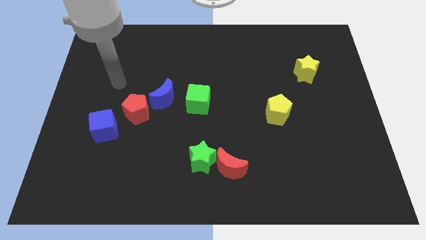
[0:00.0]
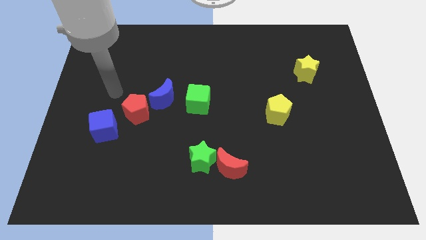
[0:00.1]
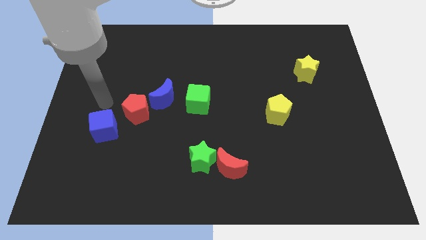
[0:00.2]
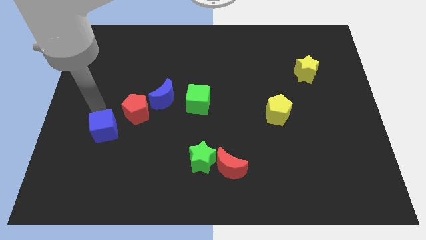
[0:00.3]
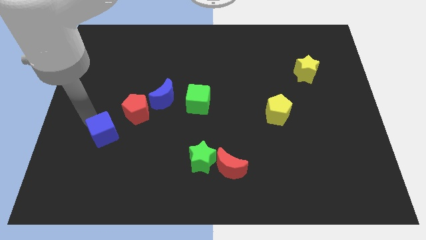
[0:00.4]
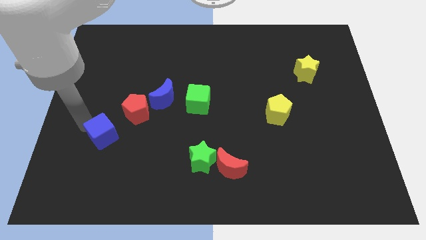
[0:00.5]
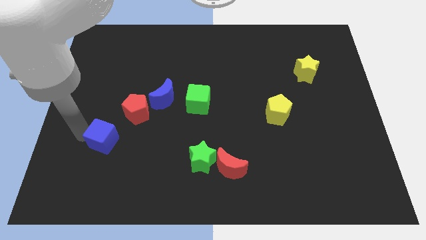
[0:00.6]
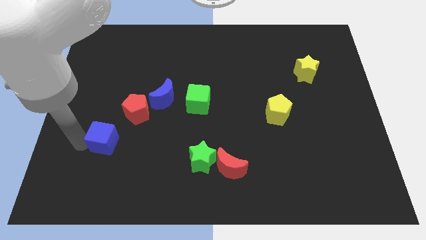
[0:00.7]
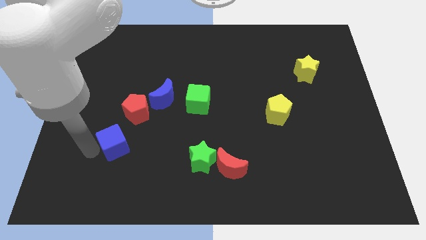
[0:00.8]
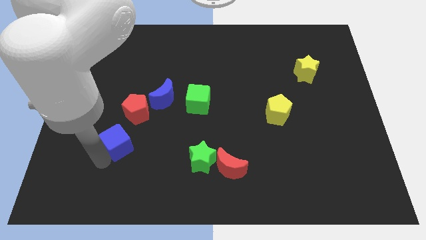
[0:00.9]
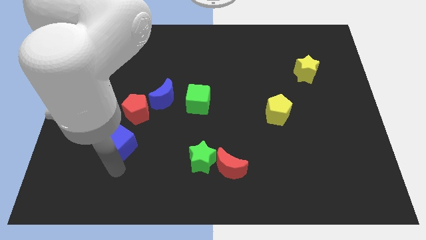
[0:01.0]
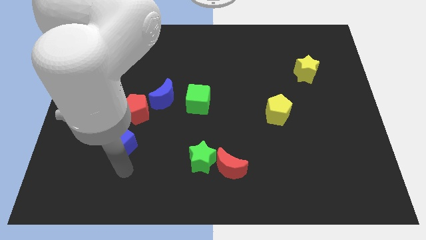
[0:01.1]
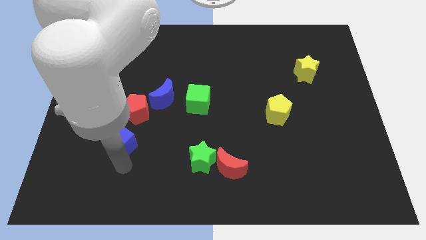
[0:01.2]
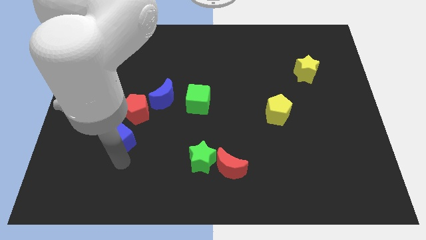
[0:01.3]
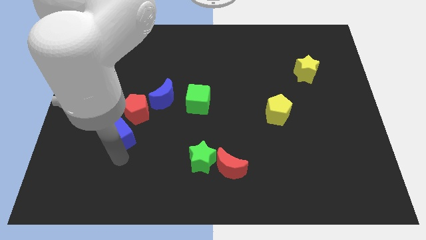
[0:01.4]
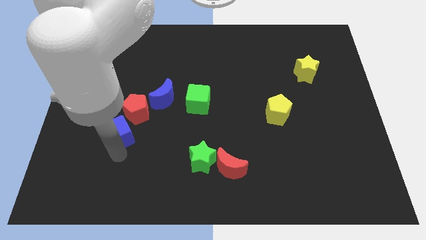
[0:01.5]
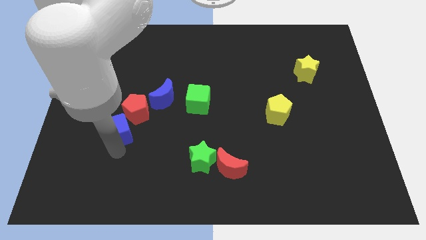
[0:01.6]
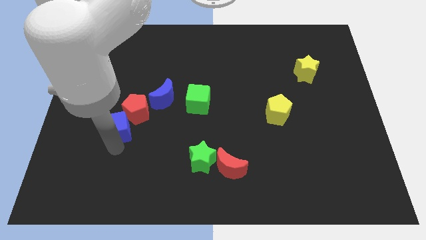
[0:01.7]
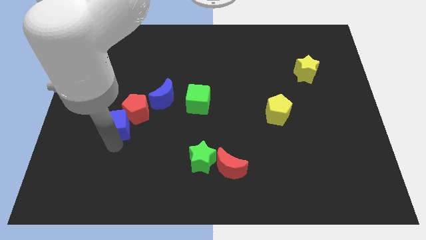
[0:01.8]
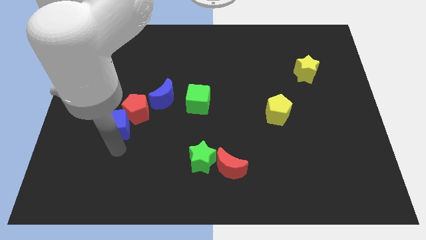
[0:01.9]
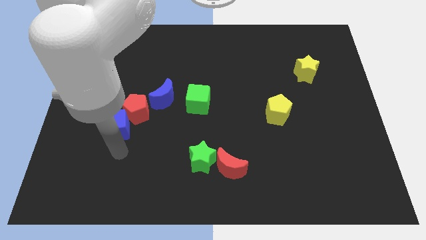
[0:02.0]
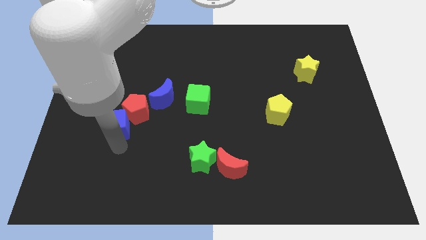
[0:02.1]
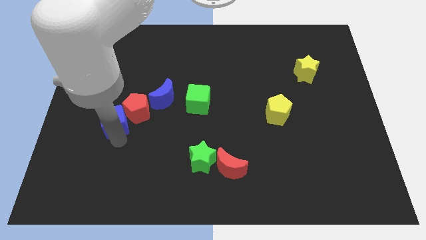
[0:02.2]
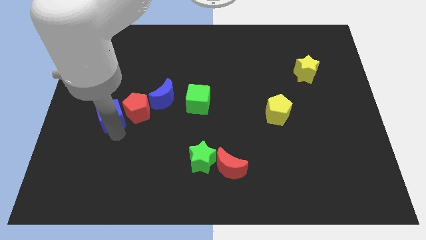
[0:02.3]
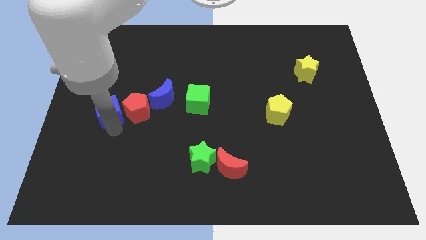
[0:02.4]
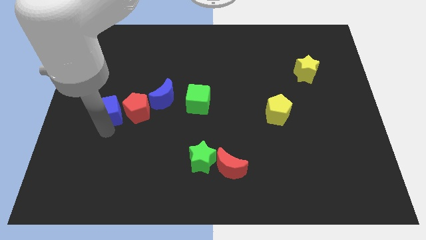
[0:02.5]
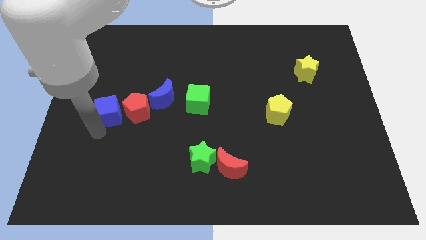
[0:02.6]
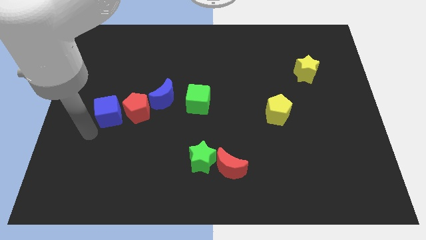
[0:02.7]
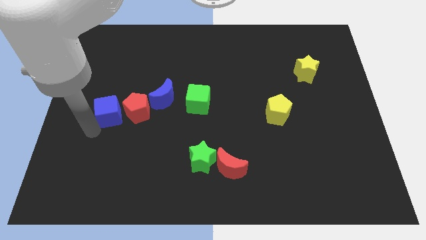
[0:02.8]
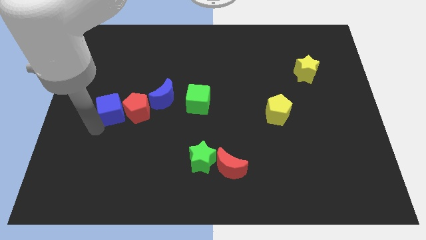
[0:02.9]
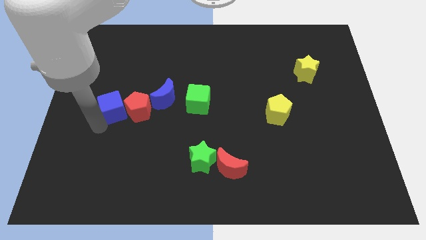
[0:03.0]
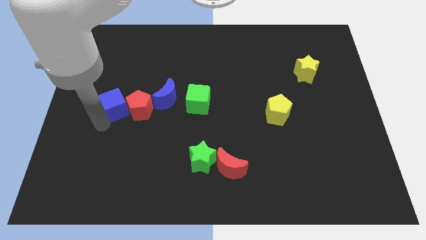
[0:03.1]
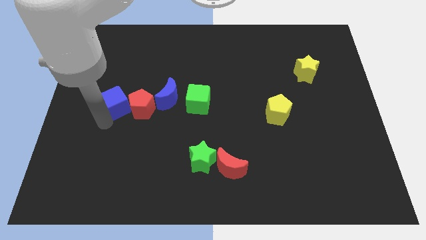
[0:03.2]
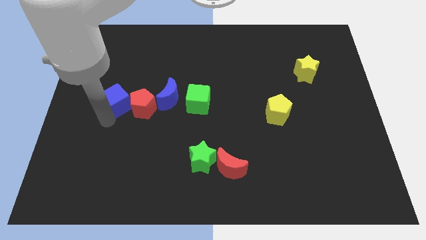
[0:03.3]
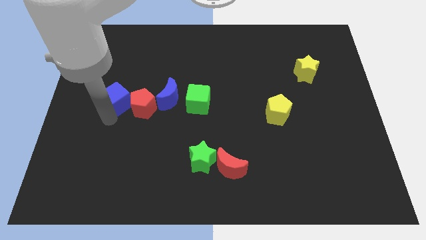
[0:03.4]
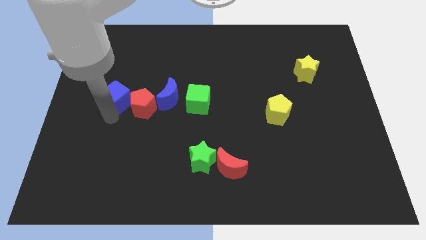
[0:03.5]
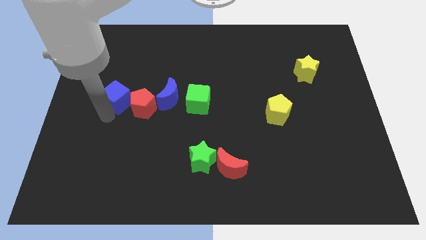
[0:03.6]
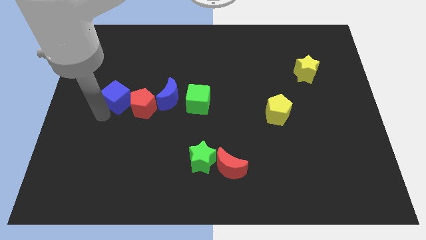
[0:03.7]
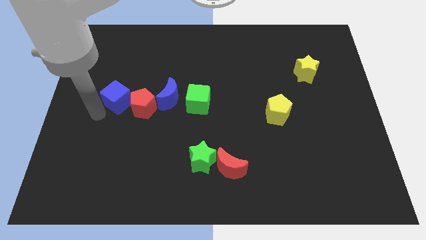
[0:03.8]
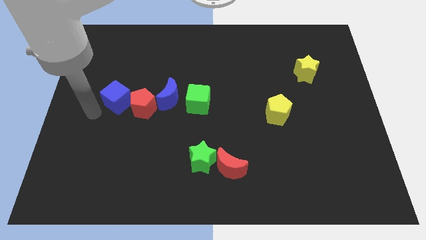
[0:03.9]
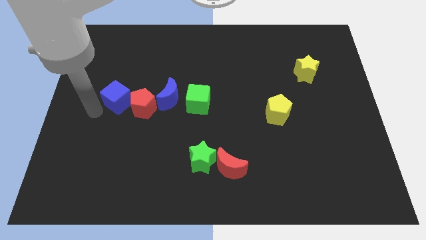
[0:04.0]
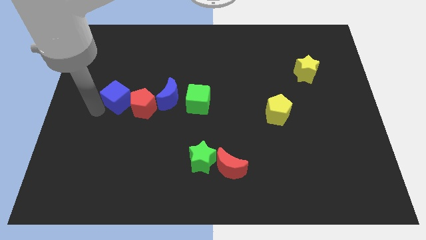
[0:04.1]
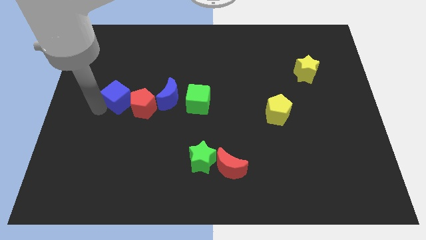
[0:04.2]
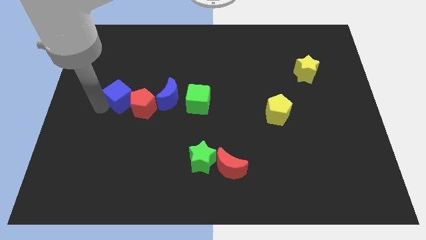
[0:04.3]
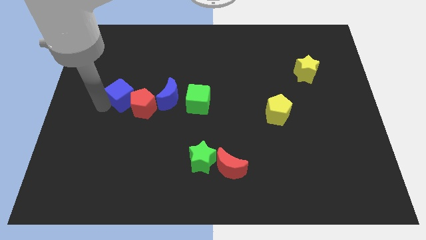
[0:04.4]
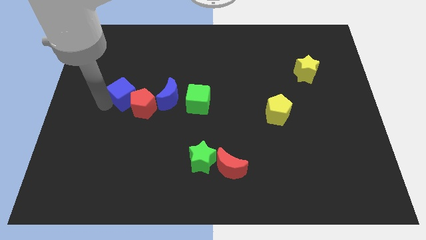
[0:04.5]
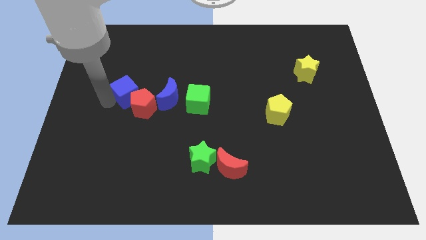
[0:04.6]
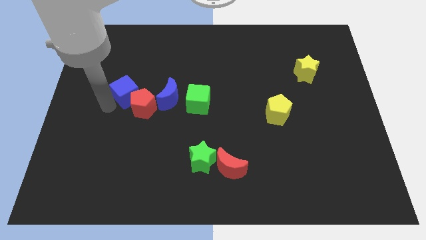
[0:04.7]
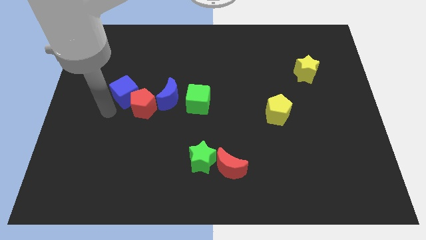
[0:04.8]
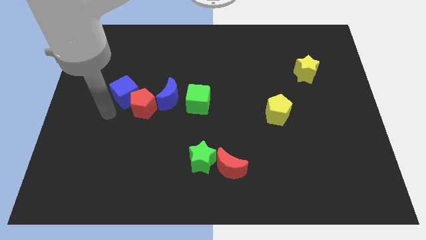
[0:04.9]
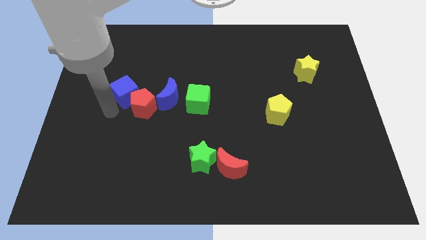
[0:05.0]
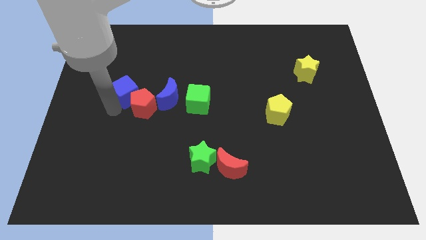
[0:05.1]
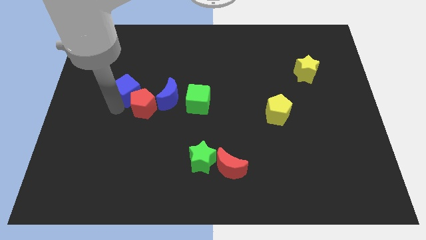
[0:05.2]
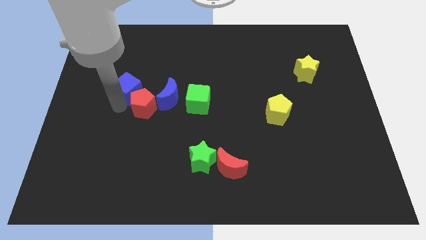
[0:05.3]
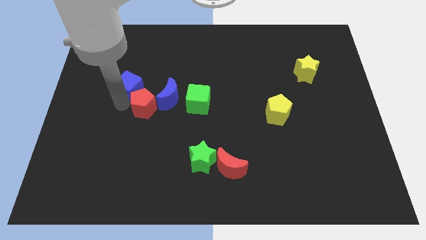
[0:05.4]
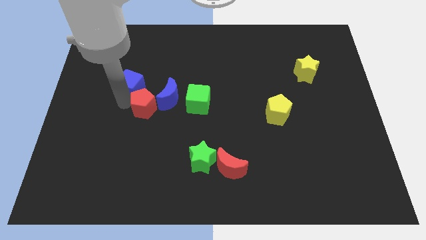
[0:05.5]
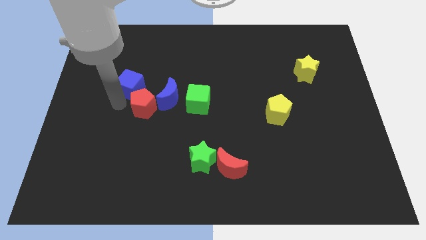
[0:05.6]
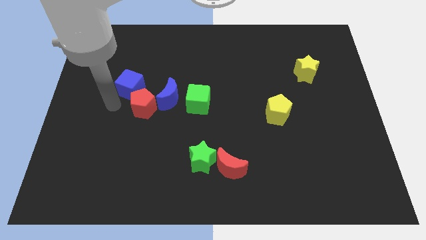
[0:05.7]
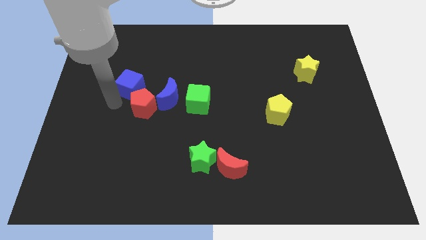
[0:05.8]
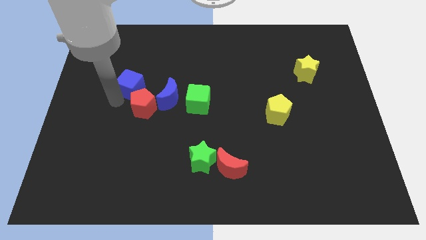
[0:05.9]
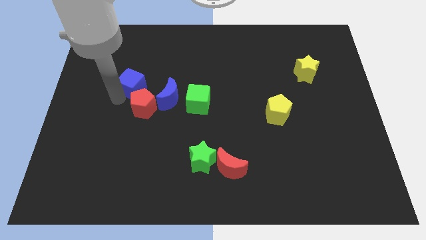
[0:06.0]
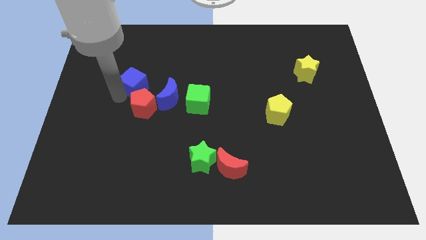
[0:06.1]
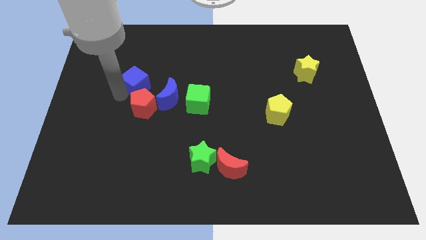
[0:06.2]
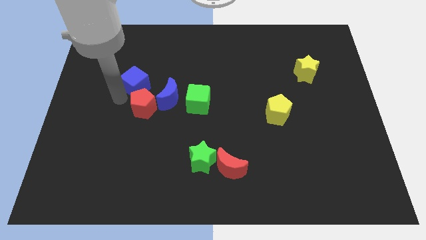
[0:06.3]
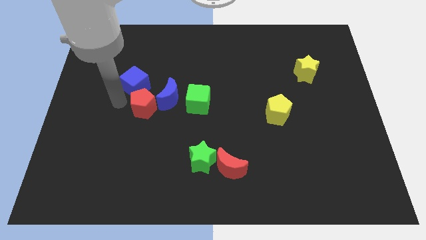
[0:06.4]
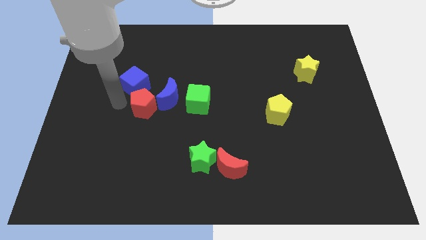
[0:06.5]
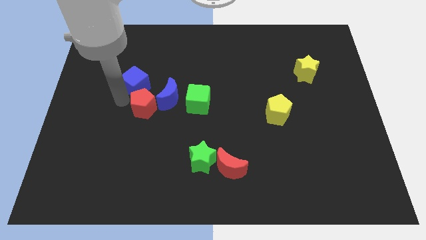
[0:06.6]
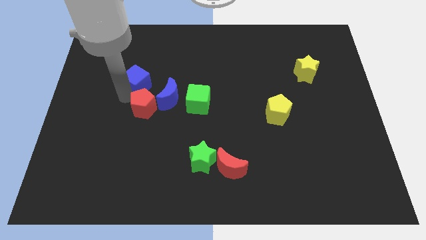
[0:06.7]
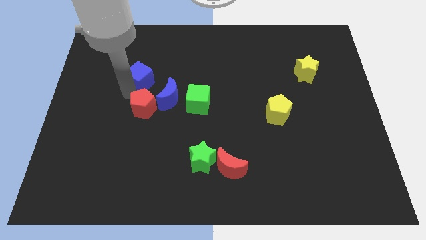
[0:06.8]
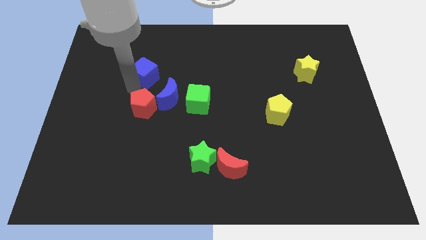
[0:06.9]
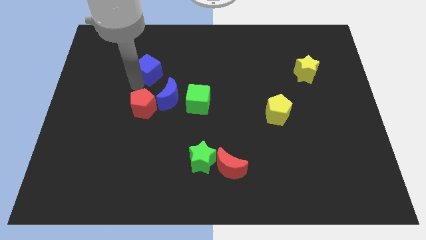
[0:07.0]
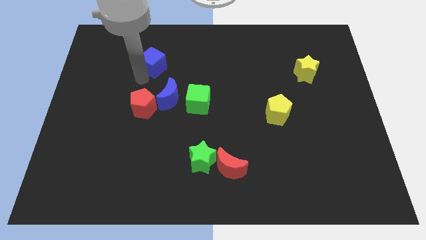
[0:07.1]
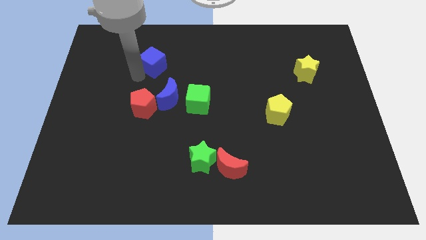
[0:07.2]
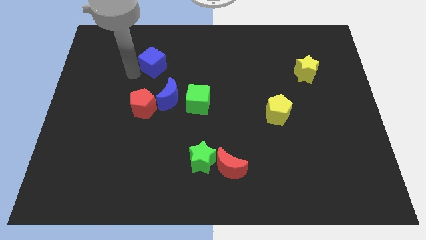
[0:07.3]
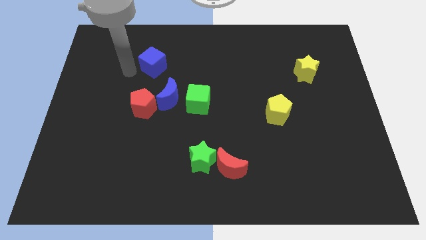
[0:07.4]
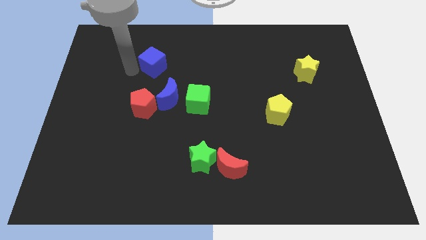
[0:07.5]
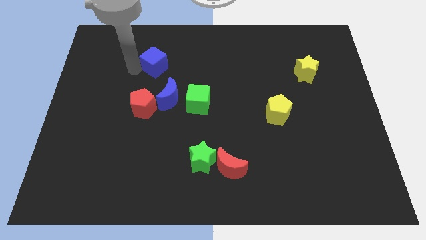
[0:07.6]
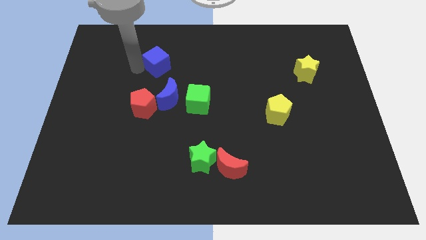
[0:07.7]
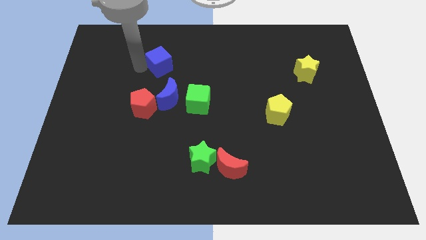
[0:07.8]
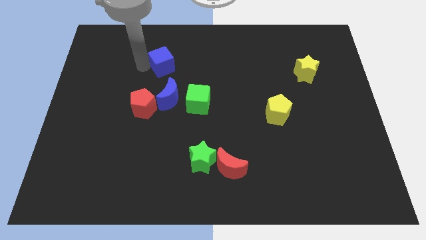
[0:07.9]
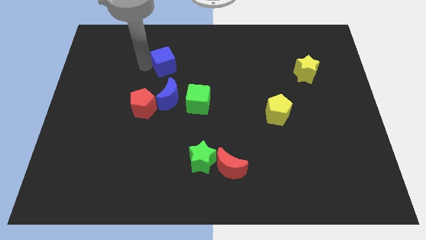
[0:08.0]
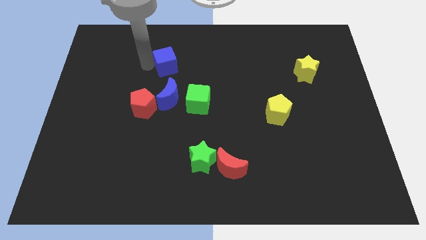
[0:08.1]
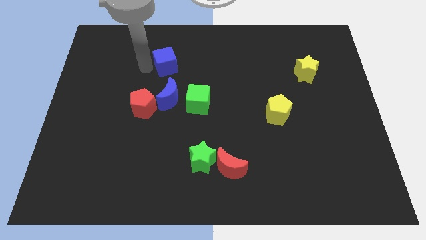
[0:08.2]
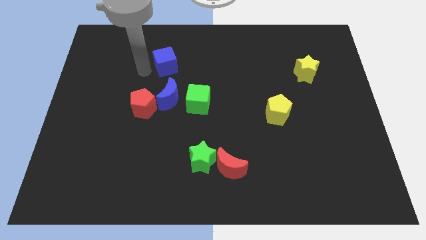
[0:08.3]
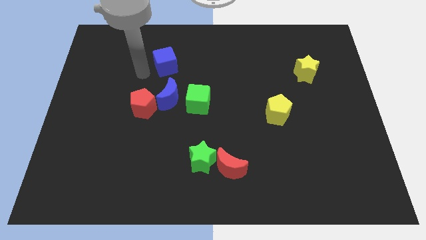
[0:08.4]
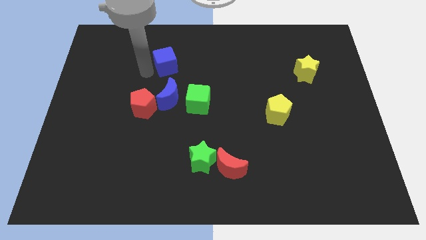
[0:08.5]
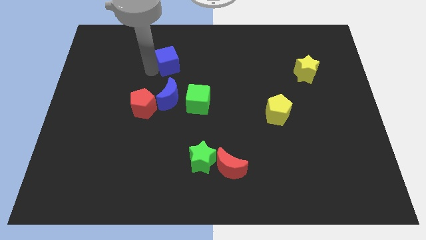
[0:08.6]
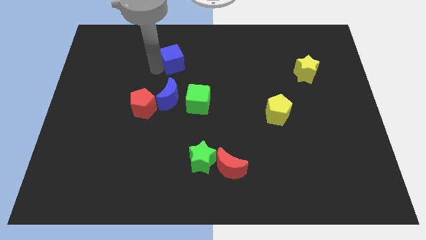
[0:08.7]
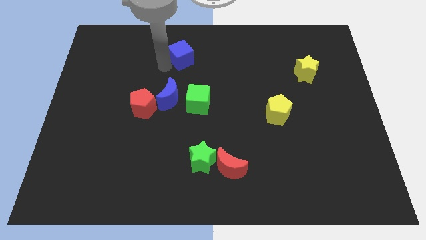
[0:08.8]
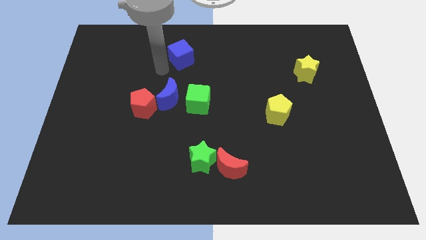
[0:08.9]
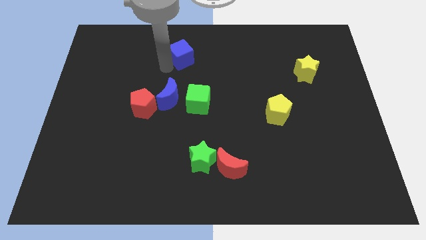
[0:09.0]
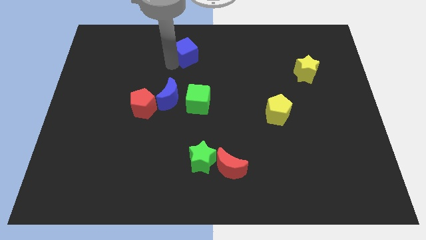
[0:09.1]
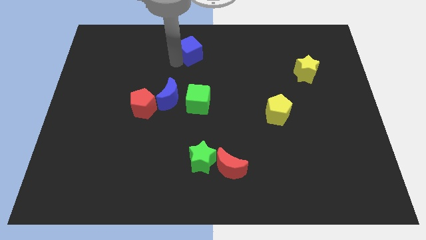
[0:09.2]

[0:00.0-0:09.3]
put the blue cube to the top
